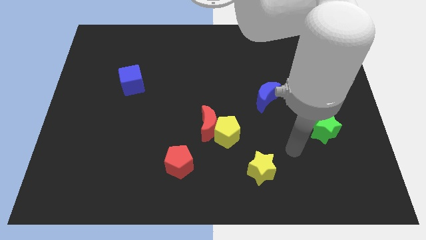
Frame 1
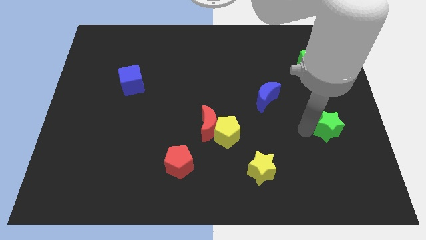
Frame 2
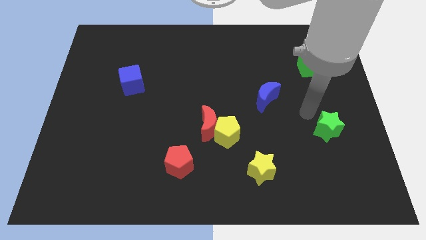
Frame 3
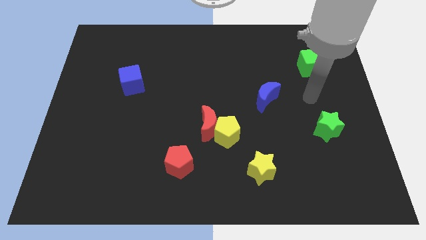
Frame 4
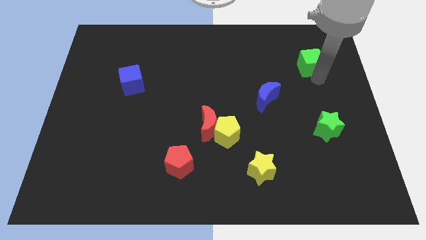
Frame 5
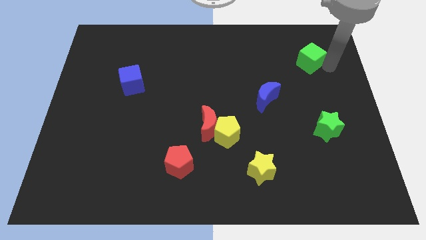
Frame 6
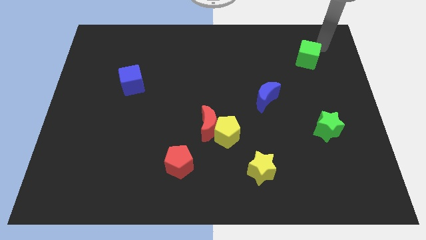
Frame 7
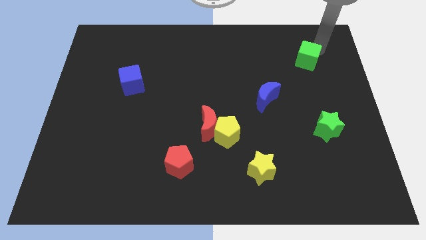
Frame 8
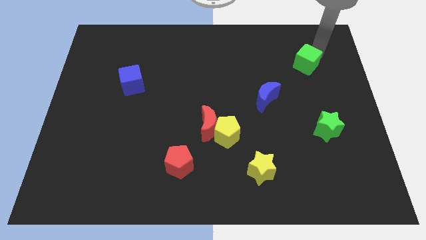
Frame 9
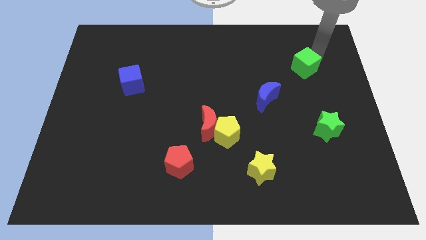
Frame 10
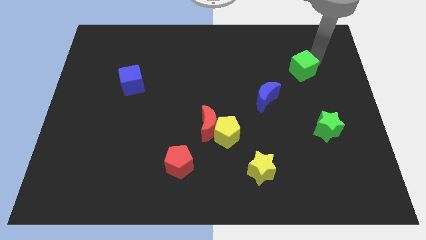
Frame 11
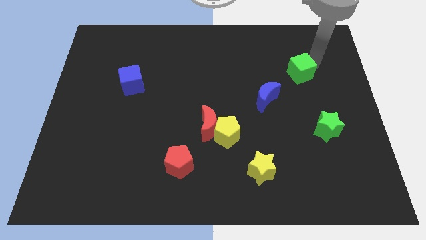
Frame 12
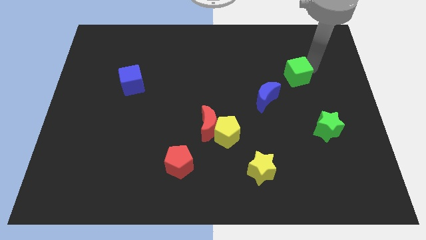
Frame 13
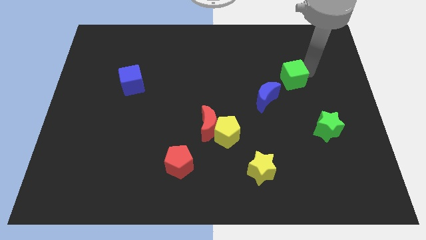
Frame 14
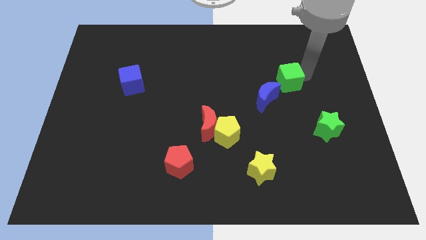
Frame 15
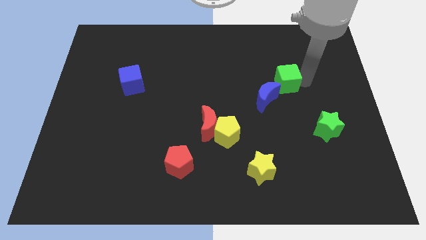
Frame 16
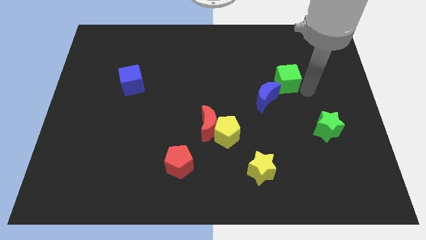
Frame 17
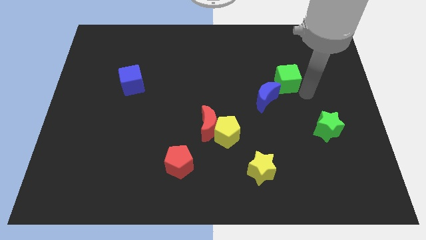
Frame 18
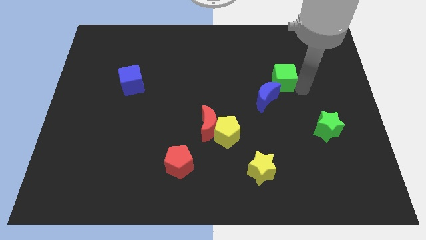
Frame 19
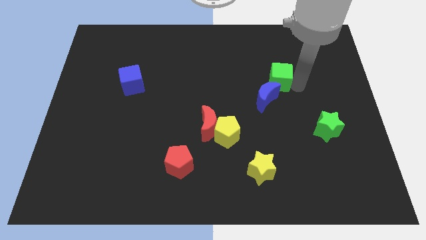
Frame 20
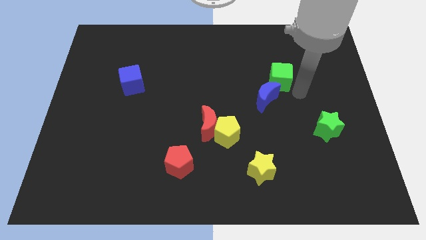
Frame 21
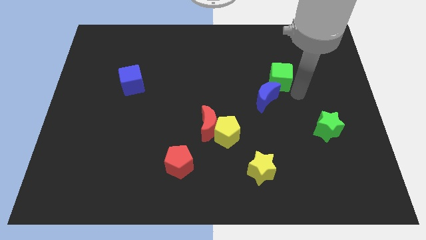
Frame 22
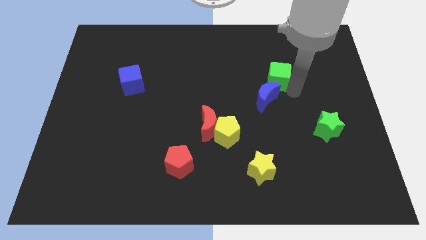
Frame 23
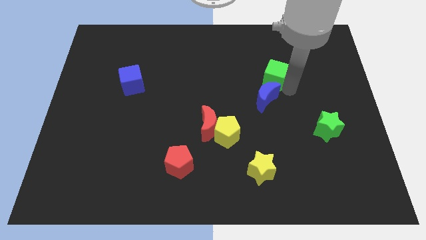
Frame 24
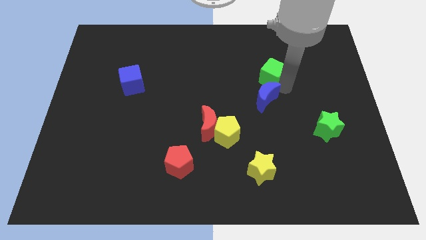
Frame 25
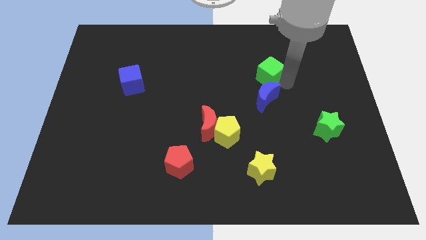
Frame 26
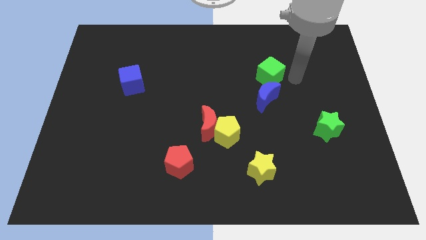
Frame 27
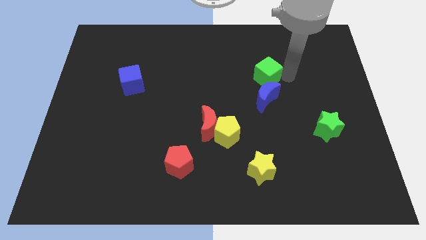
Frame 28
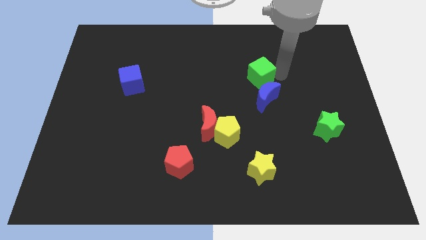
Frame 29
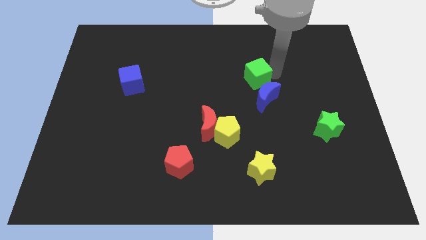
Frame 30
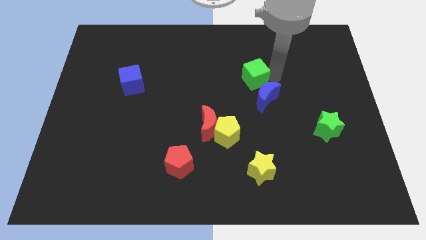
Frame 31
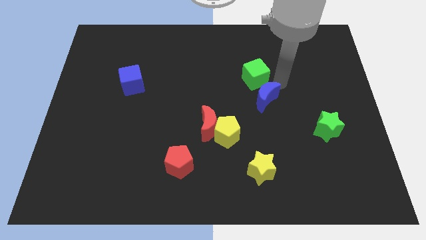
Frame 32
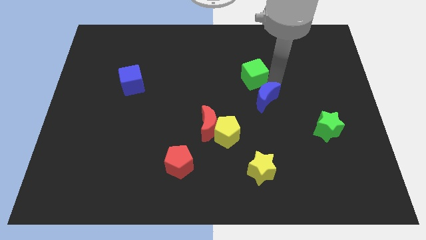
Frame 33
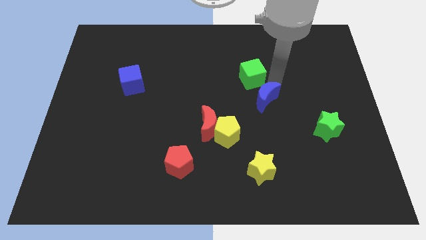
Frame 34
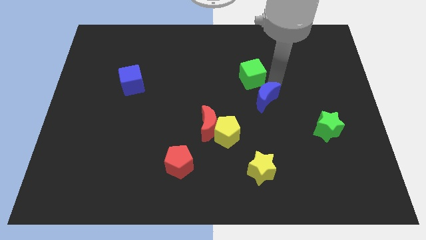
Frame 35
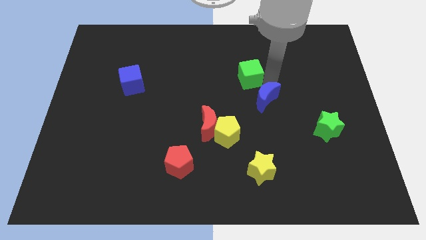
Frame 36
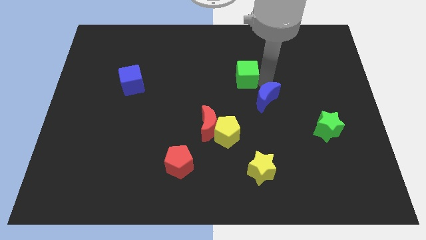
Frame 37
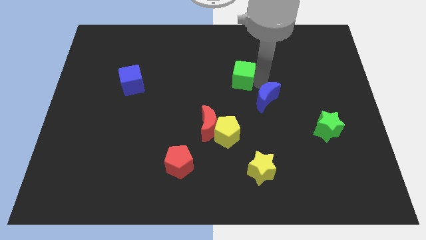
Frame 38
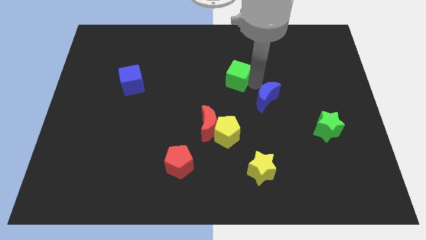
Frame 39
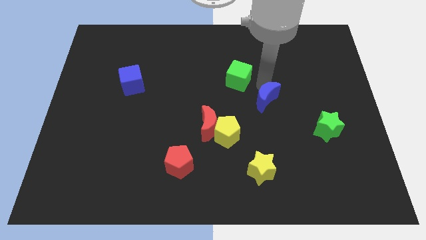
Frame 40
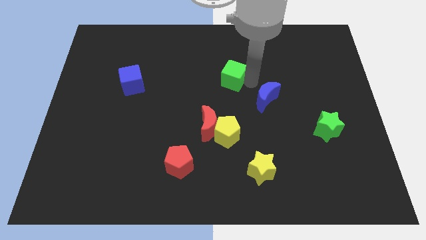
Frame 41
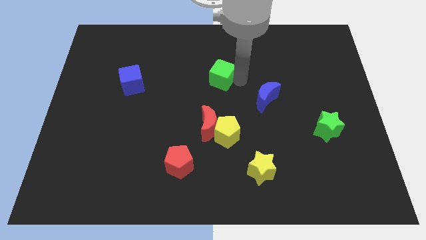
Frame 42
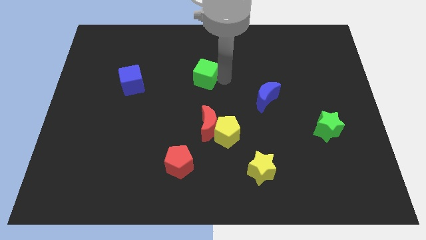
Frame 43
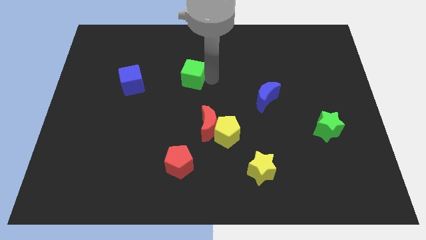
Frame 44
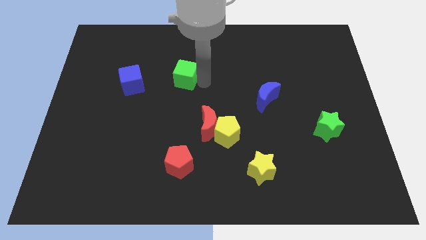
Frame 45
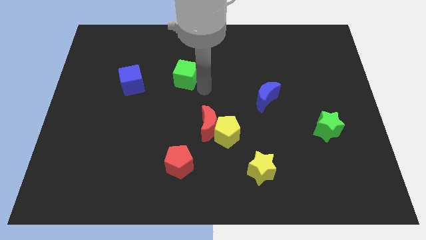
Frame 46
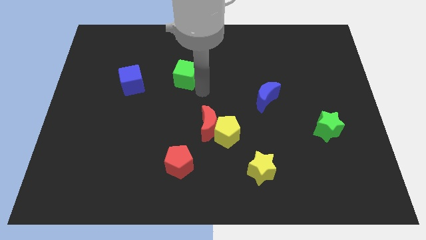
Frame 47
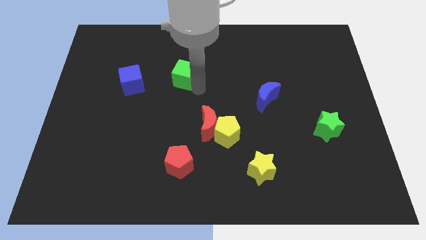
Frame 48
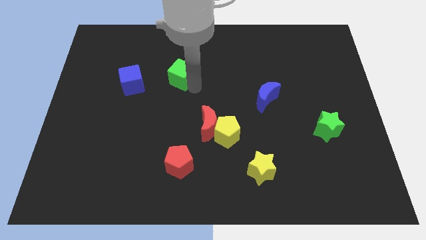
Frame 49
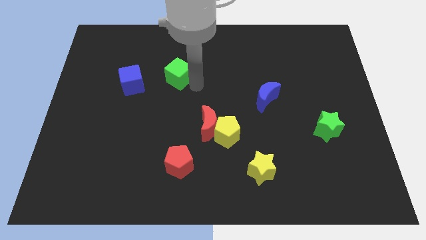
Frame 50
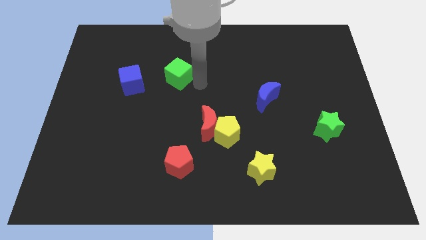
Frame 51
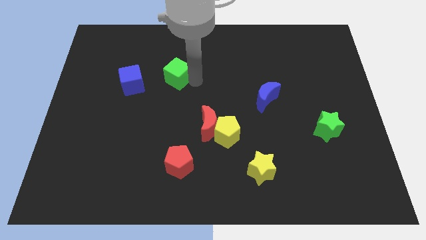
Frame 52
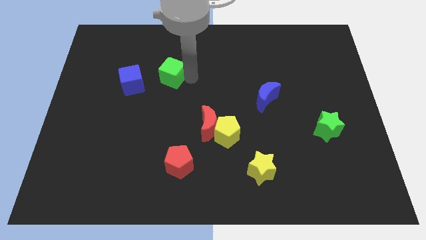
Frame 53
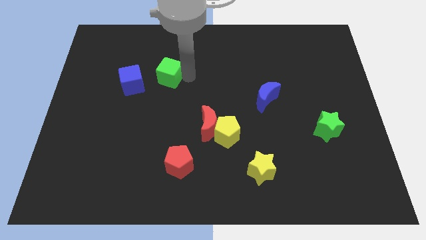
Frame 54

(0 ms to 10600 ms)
push the green cube to the top right side of the blue cube

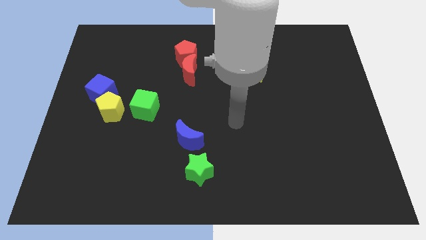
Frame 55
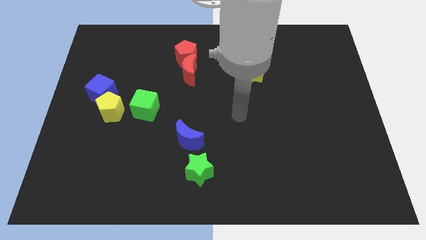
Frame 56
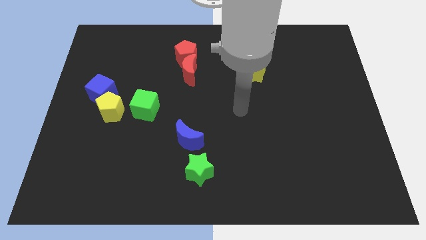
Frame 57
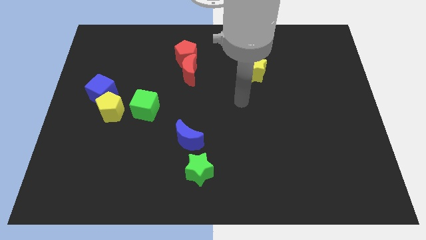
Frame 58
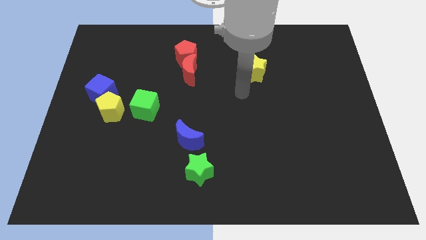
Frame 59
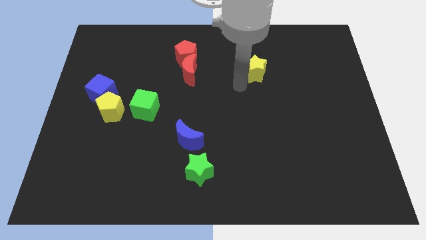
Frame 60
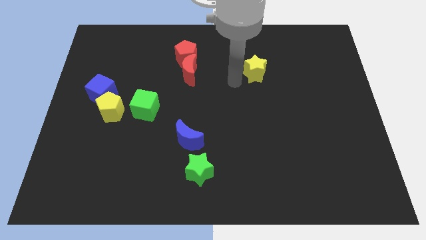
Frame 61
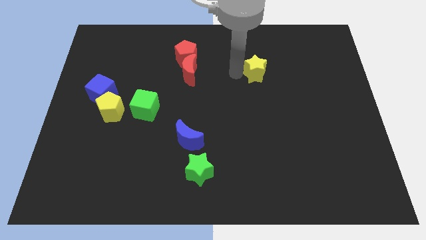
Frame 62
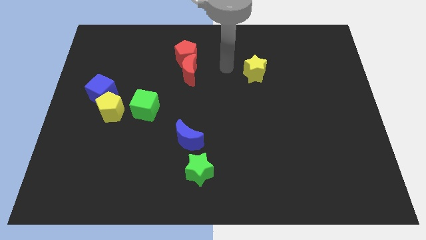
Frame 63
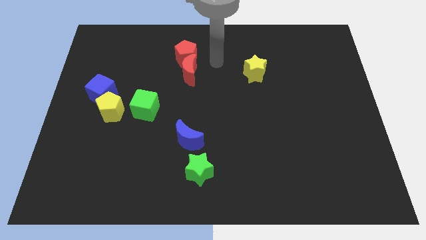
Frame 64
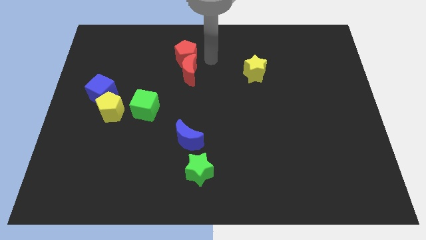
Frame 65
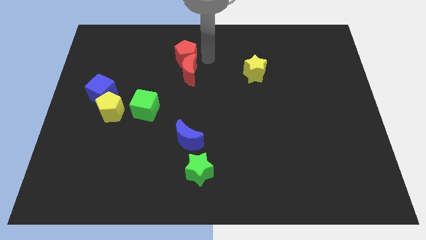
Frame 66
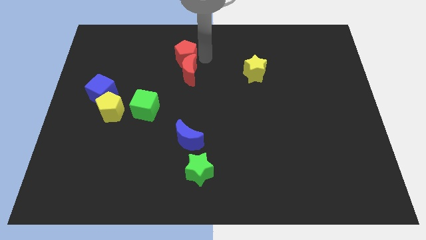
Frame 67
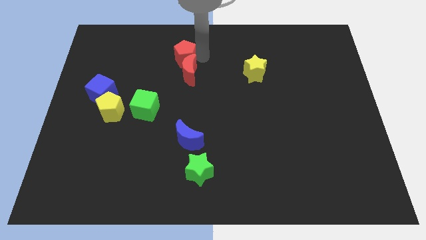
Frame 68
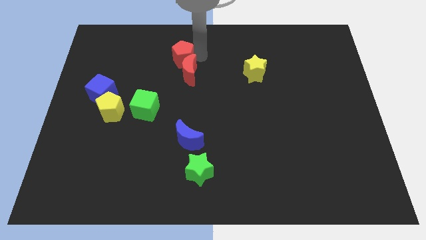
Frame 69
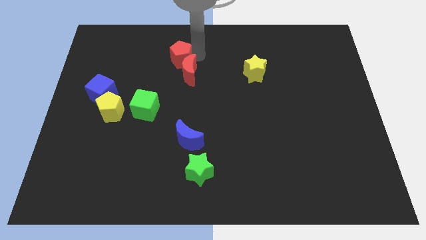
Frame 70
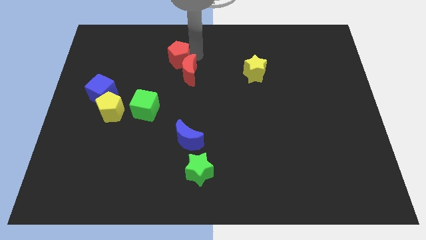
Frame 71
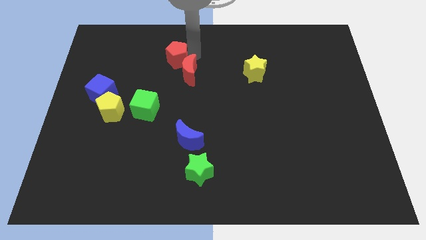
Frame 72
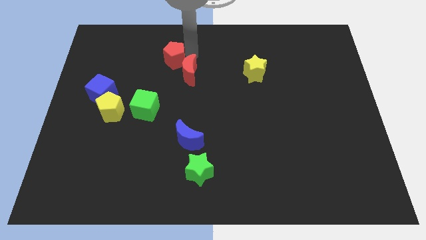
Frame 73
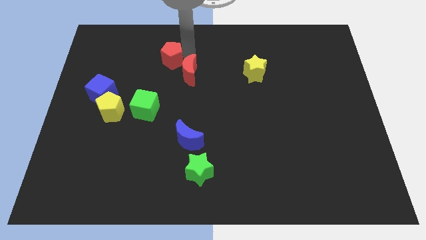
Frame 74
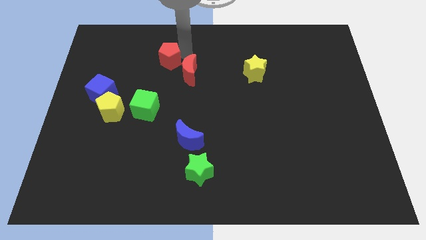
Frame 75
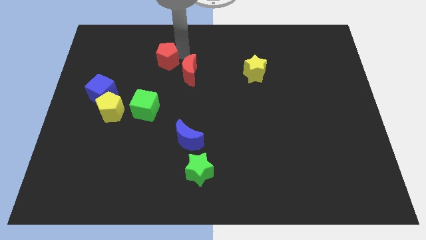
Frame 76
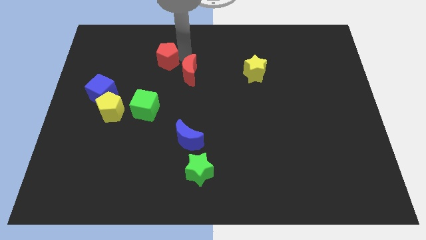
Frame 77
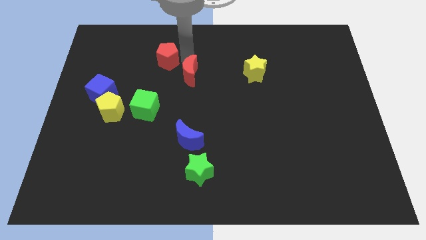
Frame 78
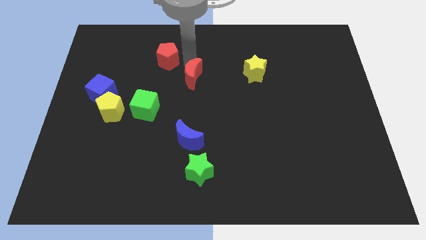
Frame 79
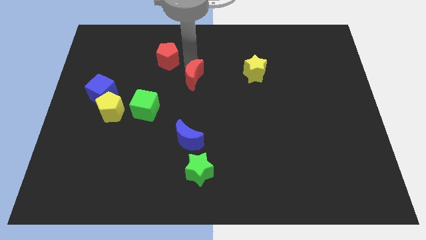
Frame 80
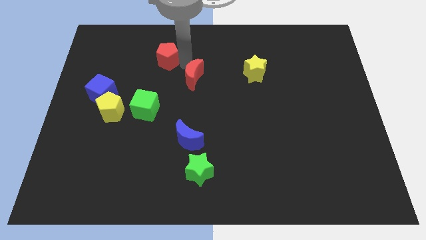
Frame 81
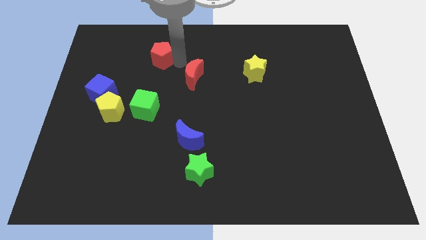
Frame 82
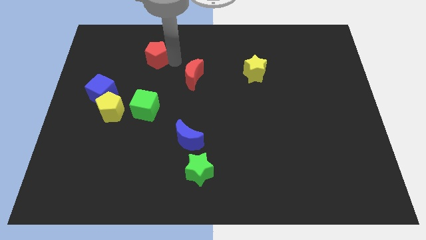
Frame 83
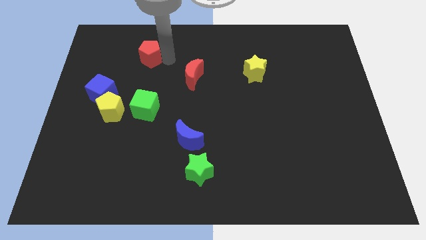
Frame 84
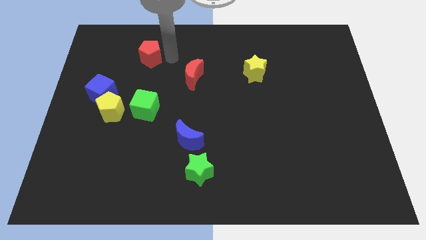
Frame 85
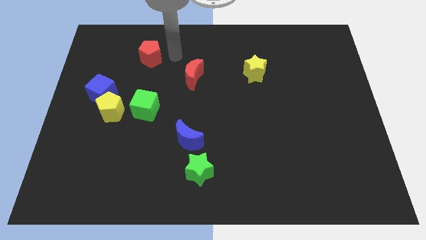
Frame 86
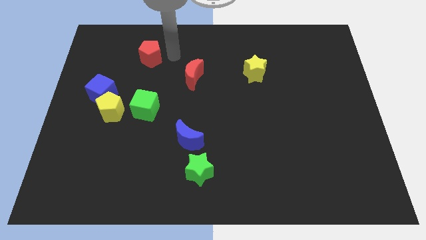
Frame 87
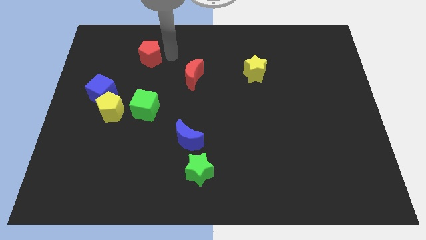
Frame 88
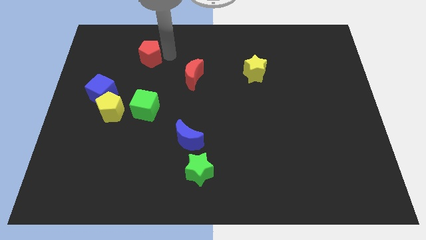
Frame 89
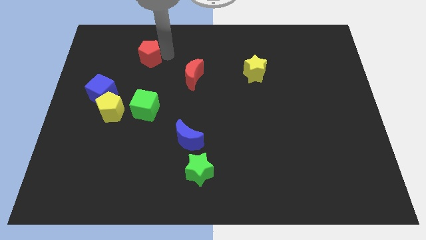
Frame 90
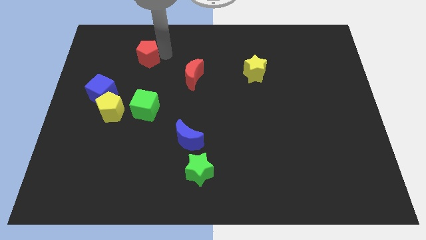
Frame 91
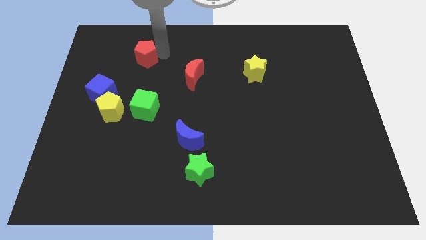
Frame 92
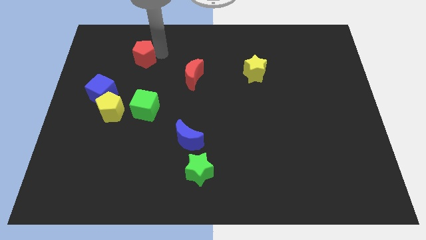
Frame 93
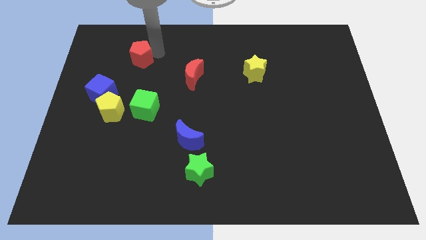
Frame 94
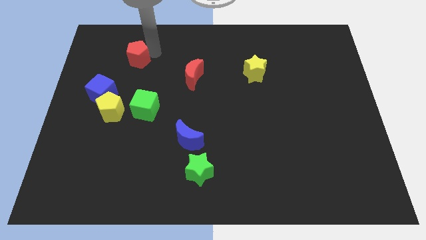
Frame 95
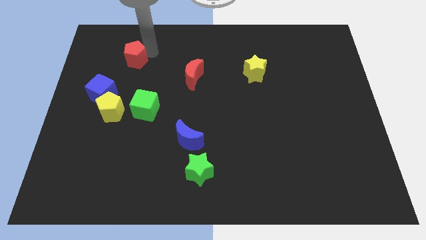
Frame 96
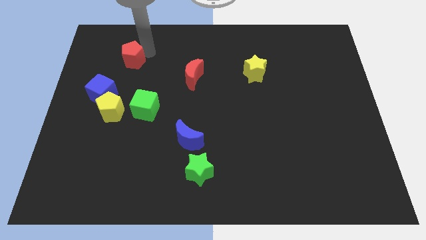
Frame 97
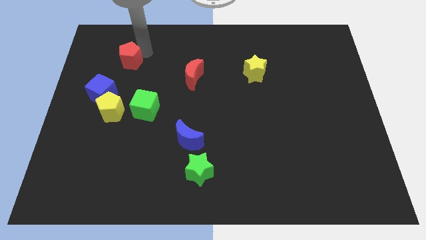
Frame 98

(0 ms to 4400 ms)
push the red pentagon above the blue cube
